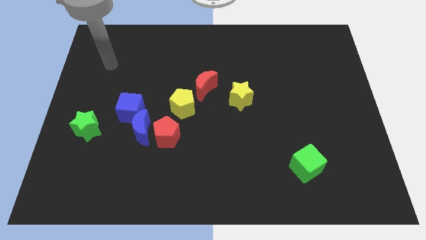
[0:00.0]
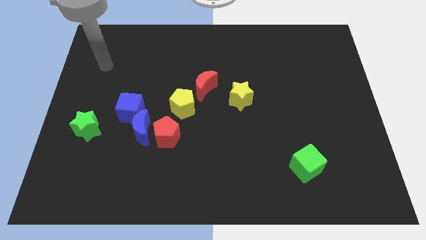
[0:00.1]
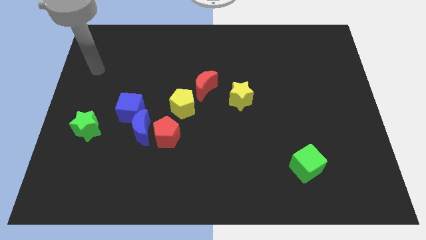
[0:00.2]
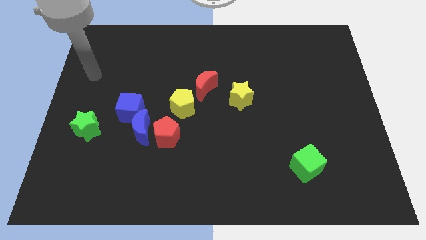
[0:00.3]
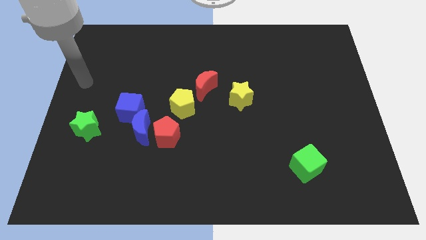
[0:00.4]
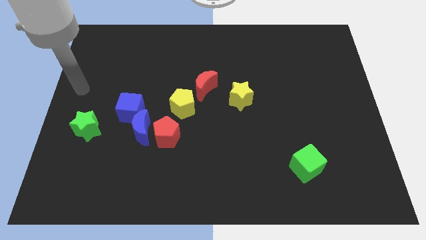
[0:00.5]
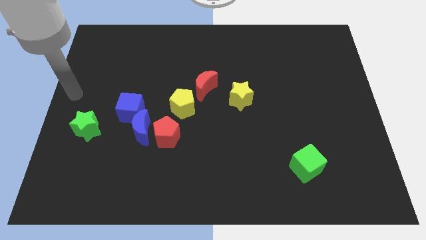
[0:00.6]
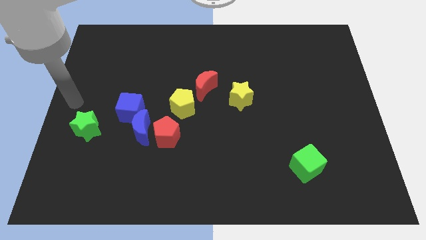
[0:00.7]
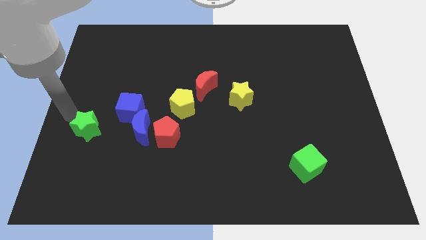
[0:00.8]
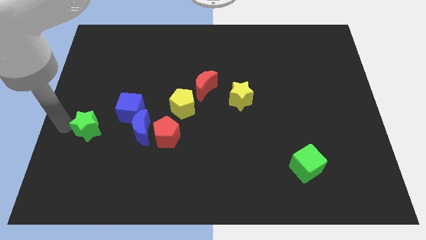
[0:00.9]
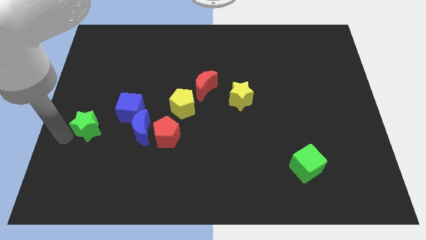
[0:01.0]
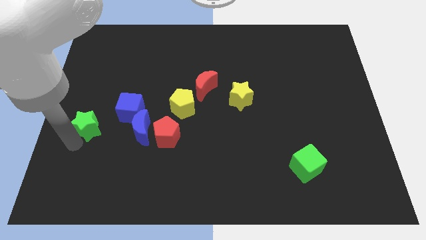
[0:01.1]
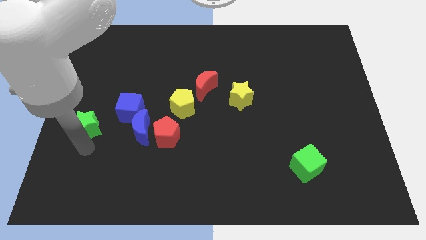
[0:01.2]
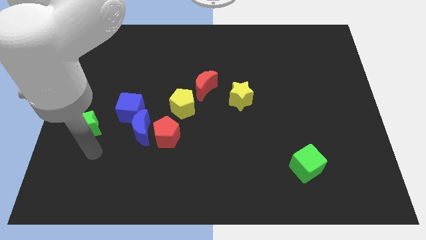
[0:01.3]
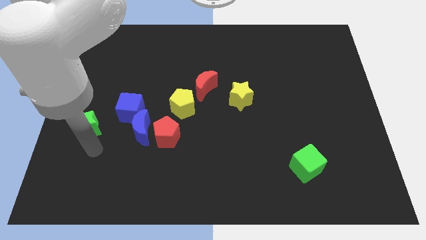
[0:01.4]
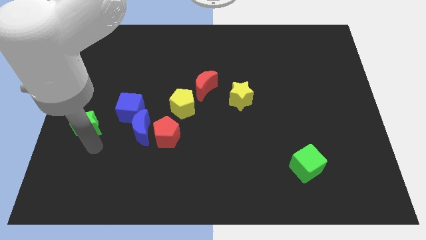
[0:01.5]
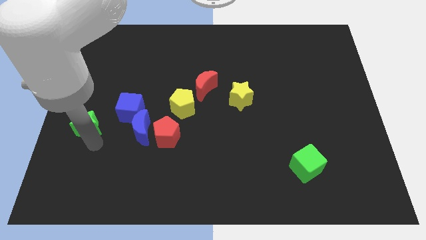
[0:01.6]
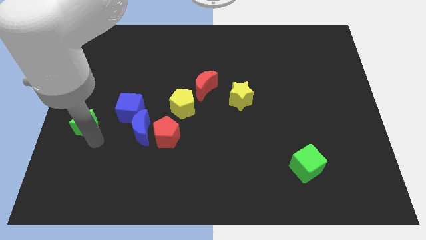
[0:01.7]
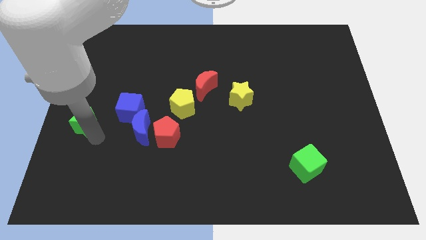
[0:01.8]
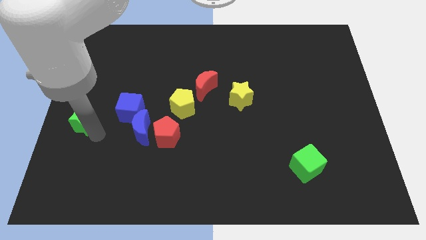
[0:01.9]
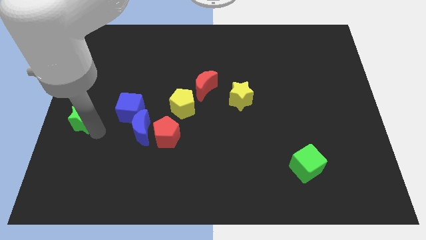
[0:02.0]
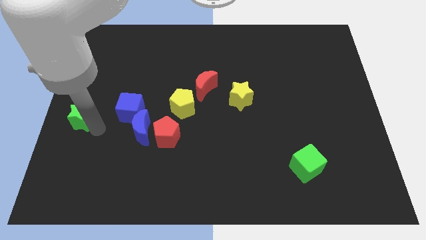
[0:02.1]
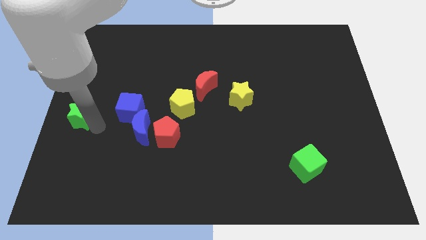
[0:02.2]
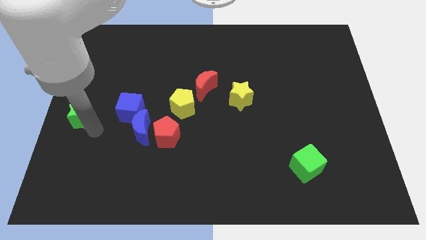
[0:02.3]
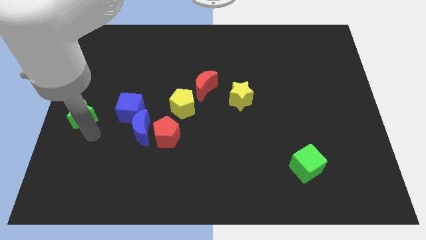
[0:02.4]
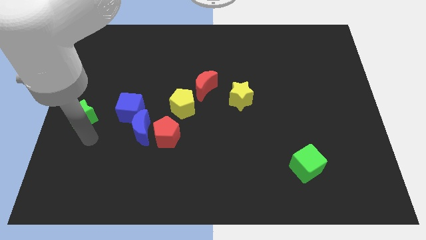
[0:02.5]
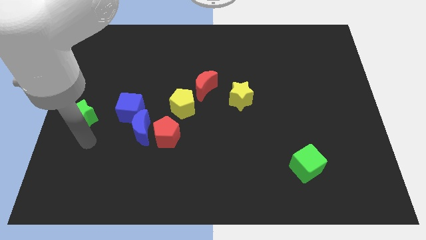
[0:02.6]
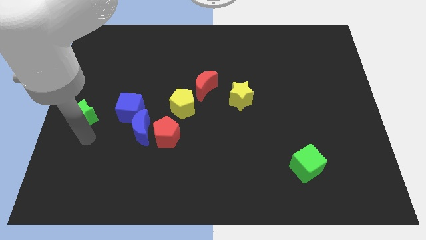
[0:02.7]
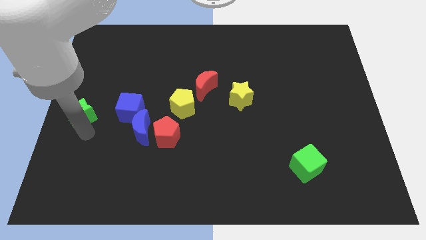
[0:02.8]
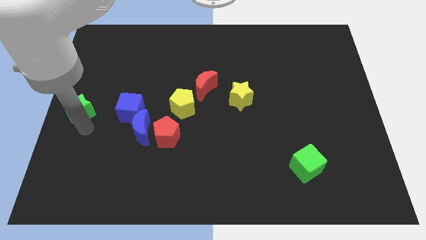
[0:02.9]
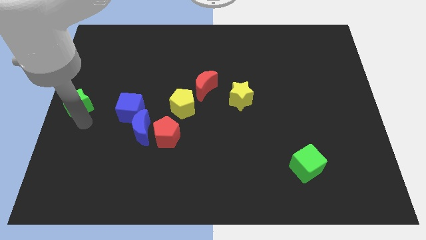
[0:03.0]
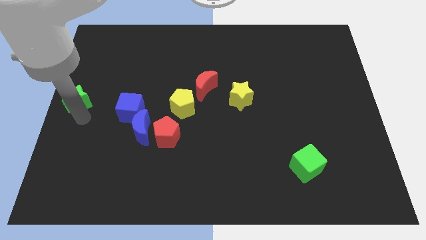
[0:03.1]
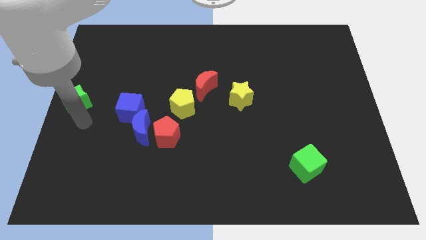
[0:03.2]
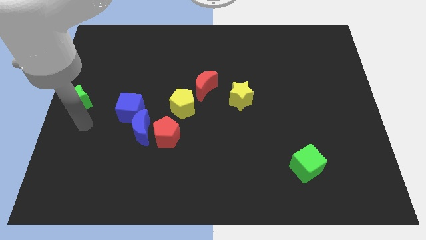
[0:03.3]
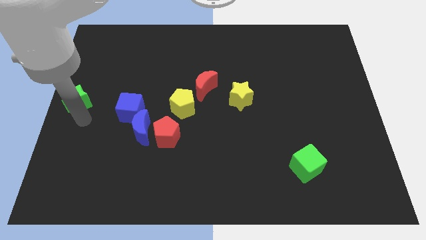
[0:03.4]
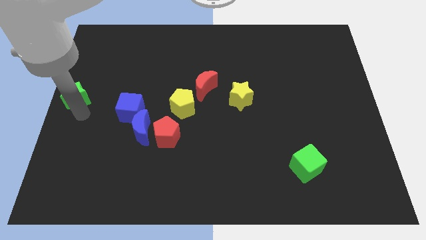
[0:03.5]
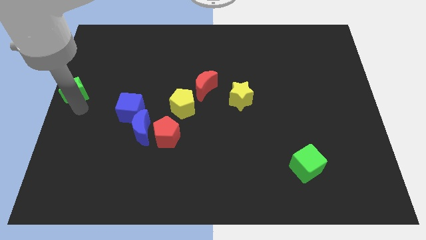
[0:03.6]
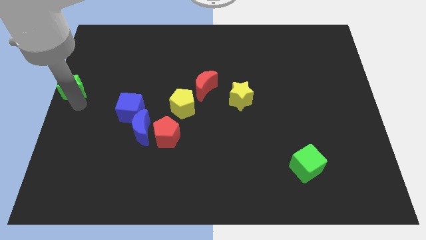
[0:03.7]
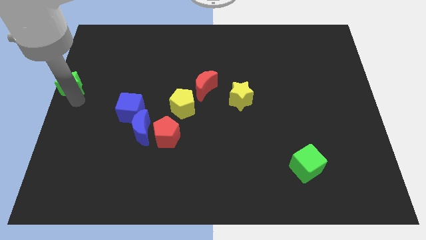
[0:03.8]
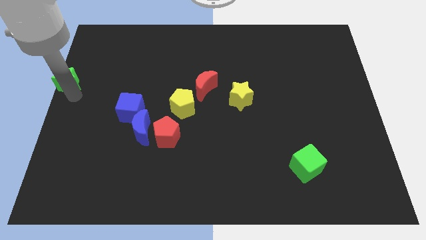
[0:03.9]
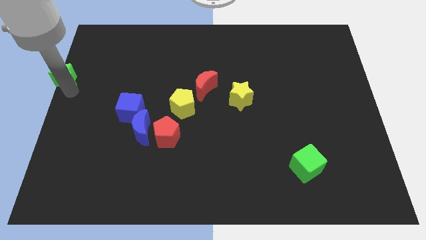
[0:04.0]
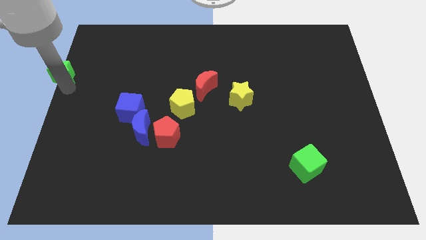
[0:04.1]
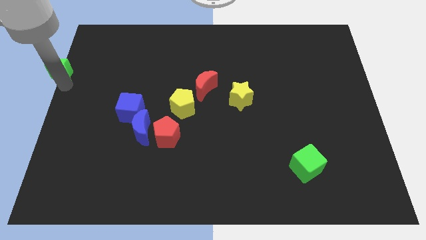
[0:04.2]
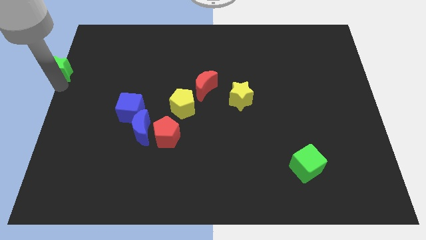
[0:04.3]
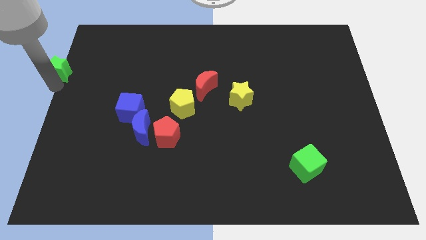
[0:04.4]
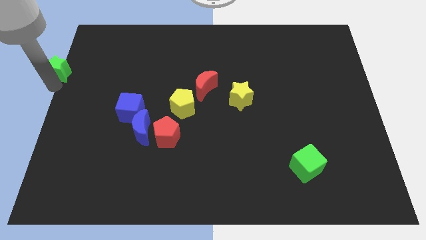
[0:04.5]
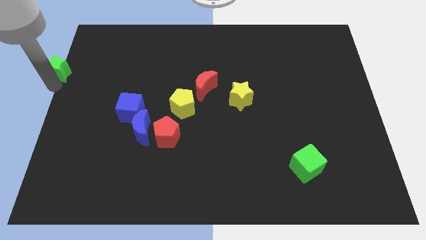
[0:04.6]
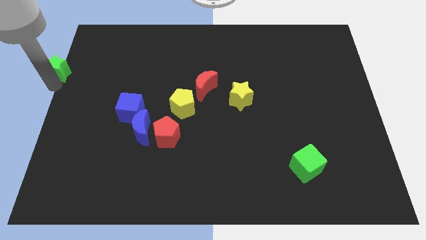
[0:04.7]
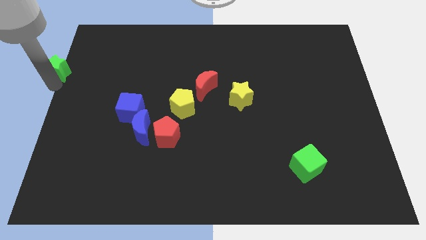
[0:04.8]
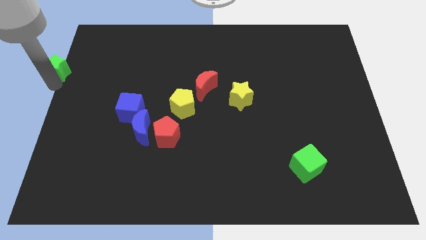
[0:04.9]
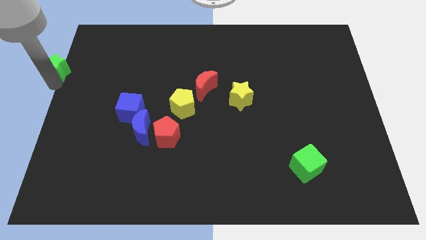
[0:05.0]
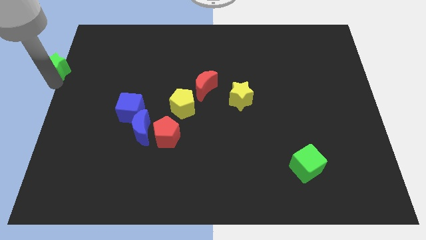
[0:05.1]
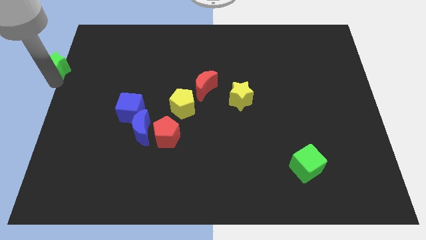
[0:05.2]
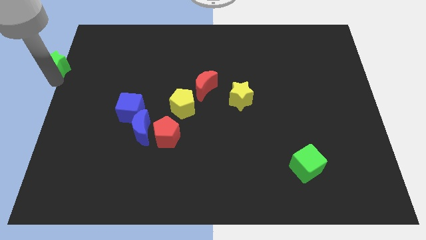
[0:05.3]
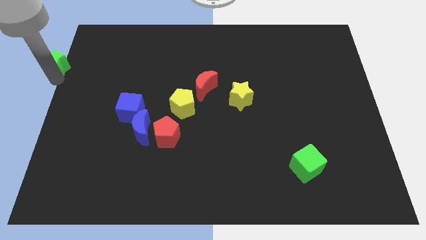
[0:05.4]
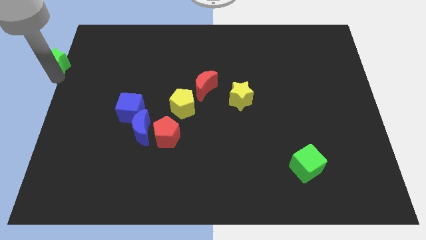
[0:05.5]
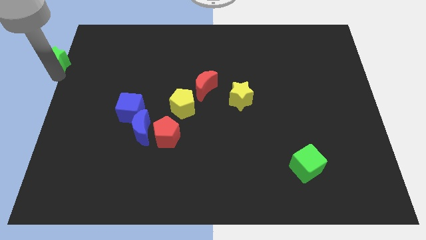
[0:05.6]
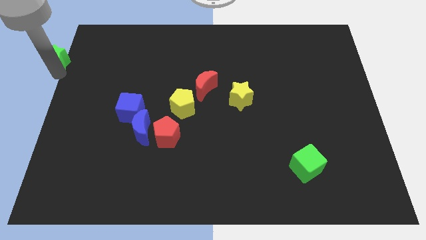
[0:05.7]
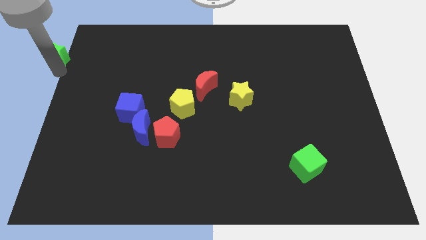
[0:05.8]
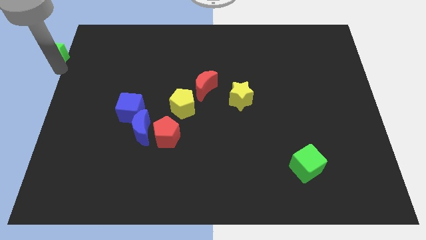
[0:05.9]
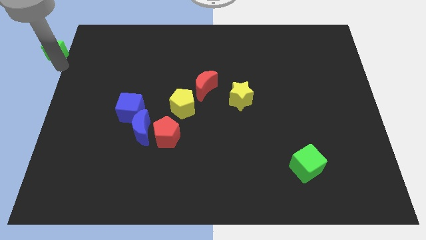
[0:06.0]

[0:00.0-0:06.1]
slide the green star to the upper left corner
